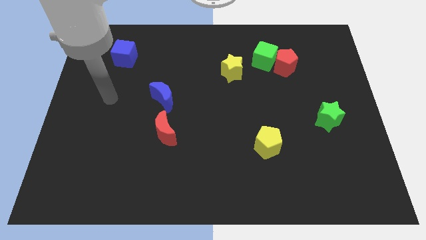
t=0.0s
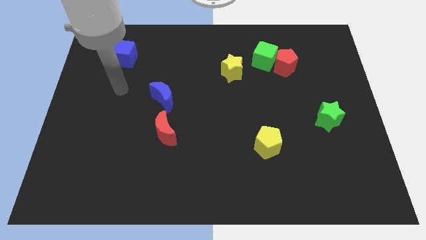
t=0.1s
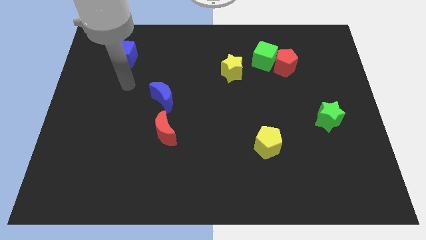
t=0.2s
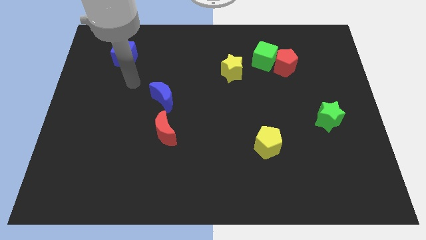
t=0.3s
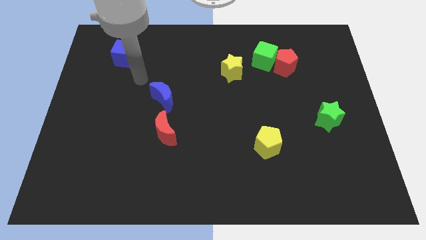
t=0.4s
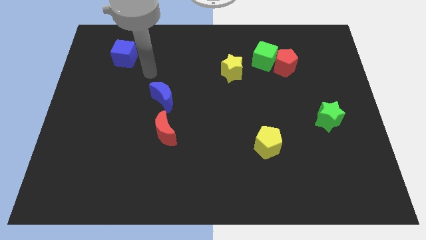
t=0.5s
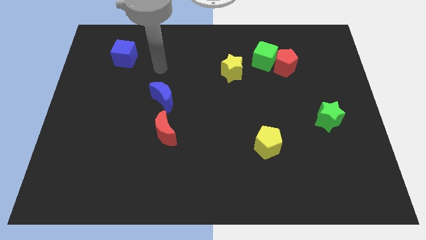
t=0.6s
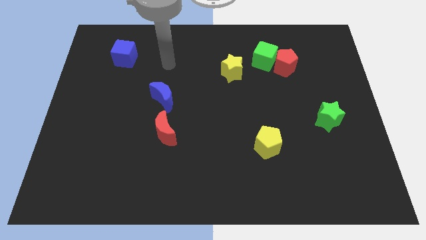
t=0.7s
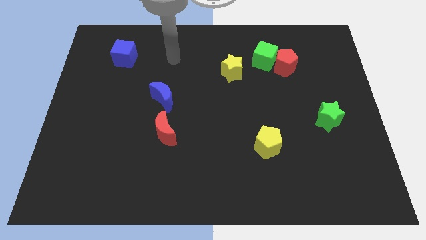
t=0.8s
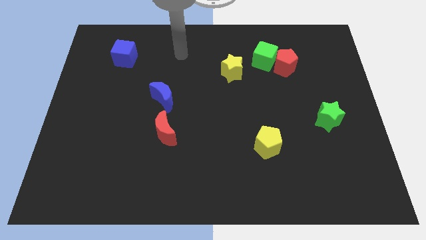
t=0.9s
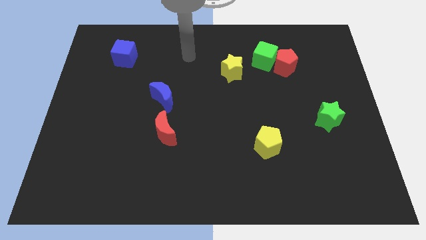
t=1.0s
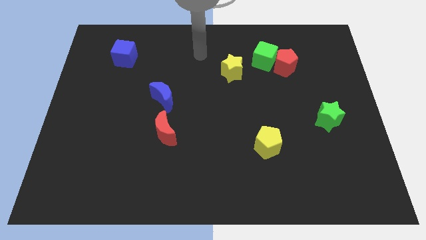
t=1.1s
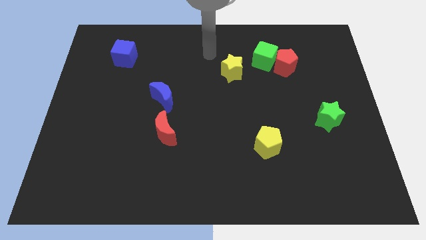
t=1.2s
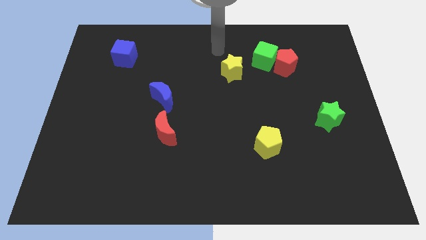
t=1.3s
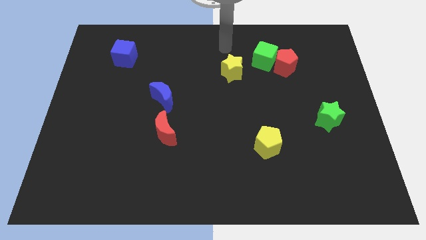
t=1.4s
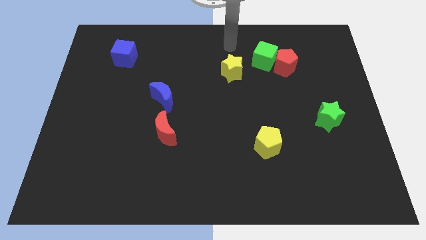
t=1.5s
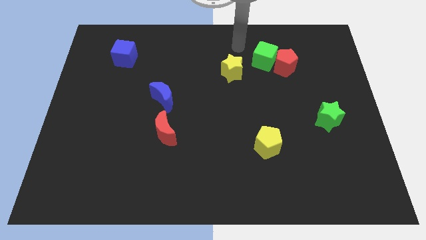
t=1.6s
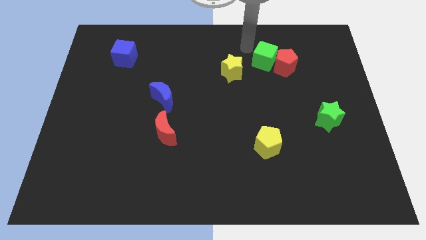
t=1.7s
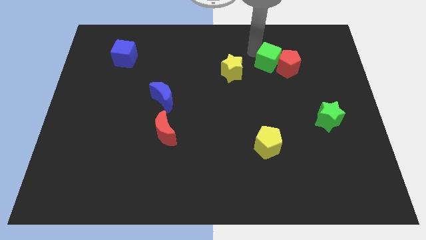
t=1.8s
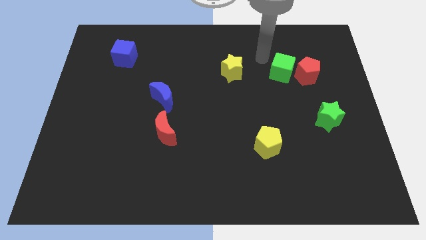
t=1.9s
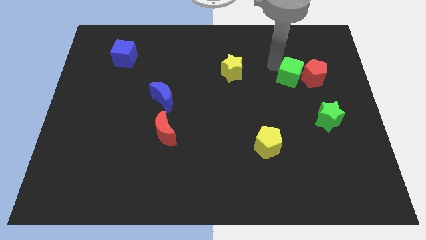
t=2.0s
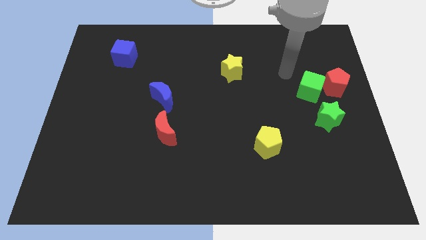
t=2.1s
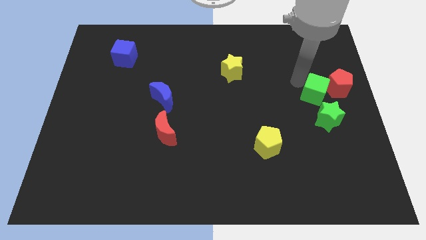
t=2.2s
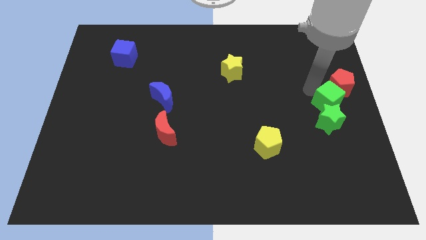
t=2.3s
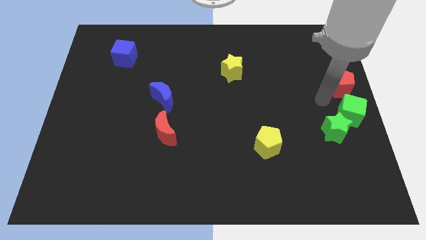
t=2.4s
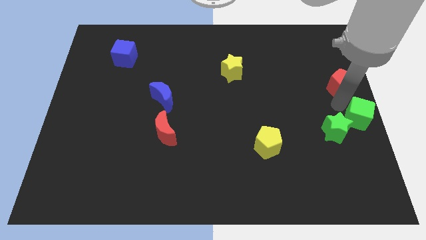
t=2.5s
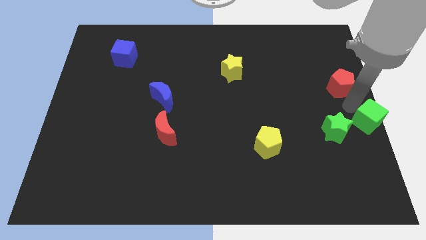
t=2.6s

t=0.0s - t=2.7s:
separate the red pentagon from the green cube

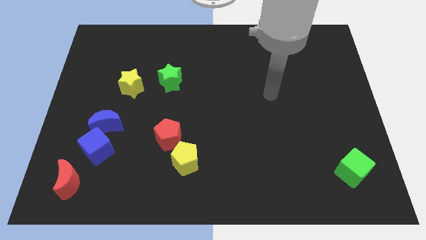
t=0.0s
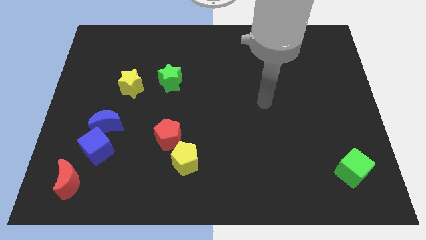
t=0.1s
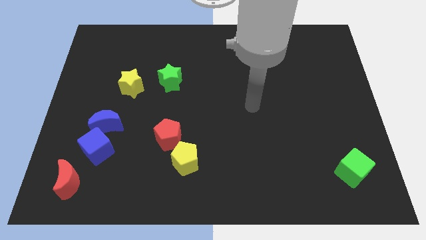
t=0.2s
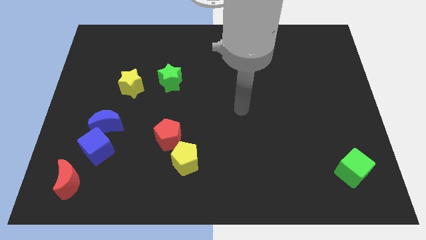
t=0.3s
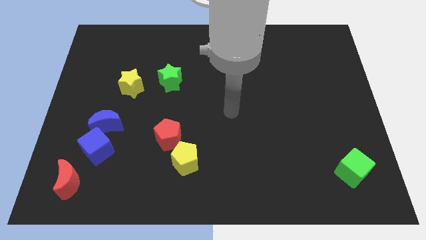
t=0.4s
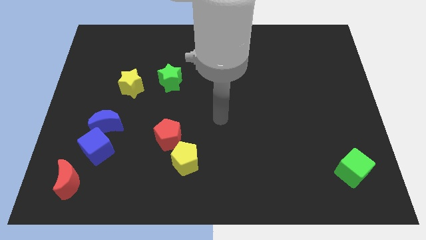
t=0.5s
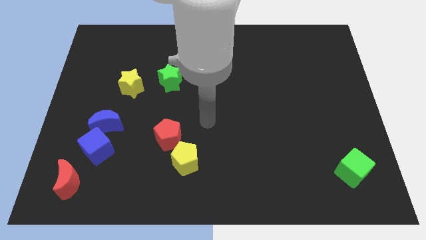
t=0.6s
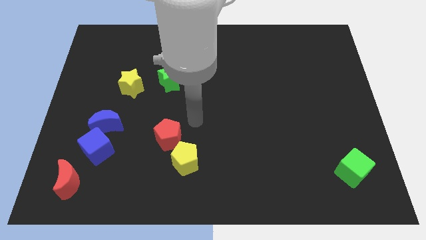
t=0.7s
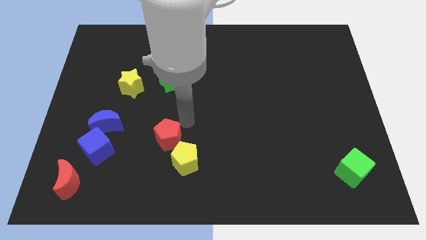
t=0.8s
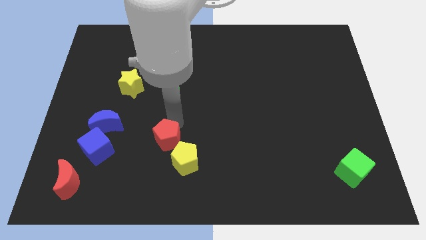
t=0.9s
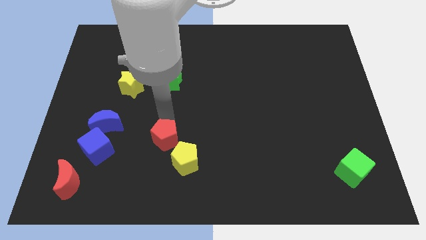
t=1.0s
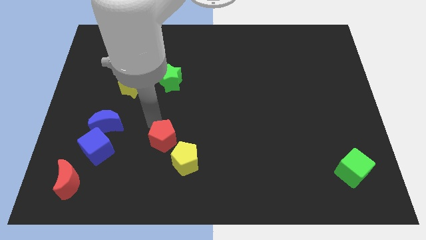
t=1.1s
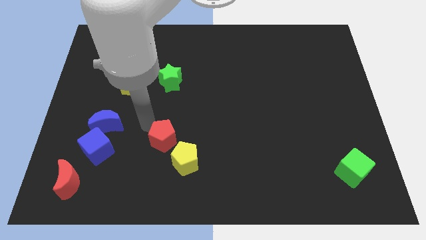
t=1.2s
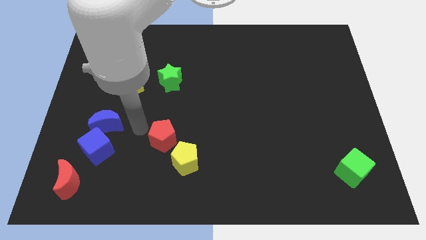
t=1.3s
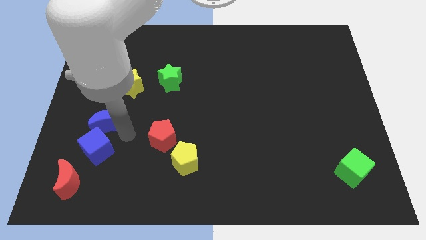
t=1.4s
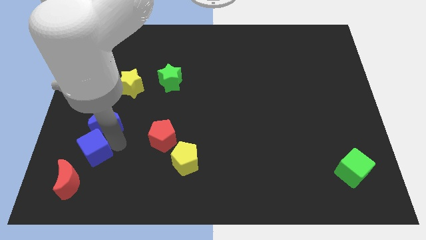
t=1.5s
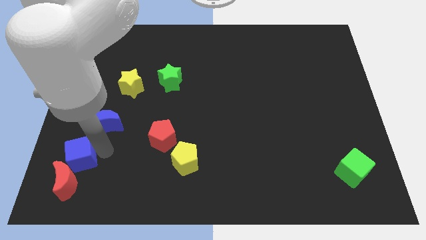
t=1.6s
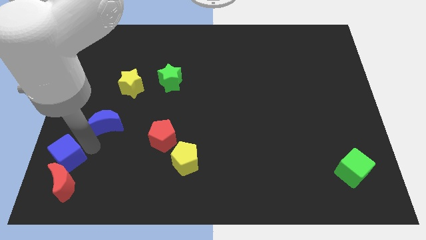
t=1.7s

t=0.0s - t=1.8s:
pull the blue moon apart from the blue cube

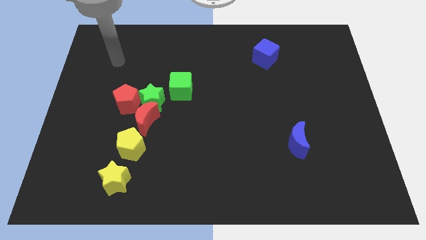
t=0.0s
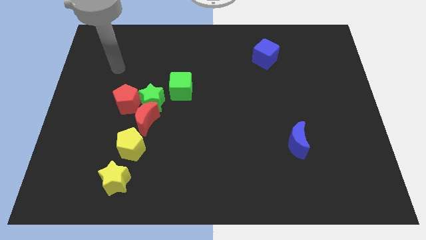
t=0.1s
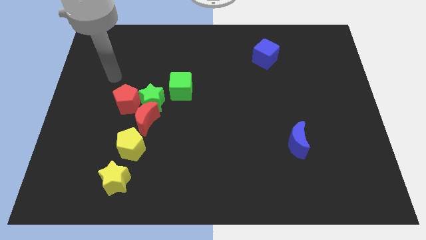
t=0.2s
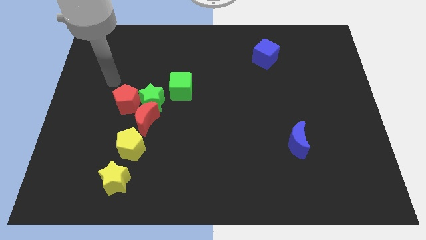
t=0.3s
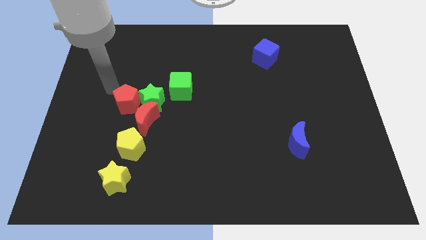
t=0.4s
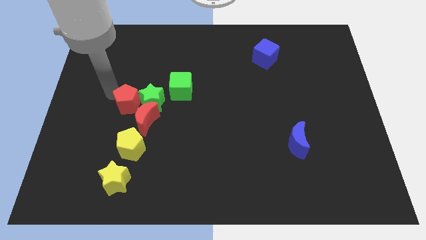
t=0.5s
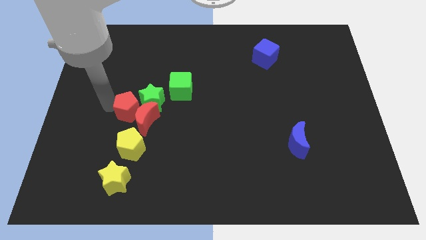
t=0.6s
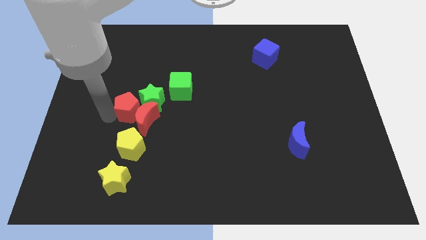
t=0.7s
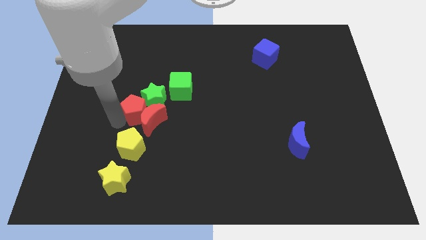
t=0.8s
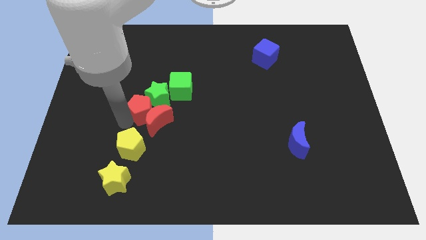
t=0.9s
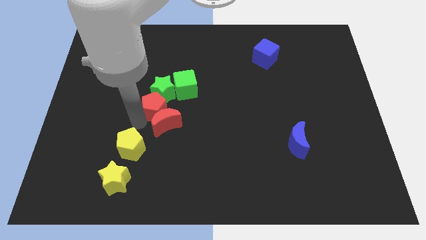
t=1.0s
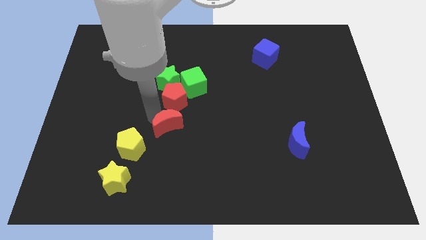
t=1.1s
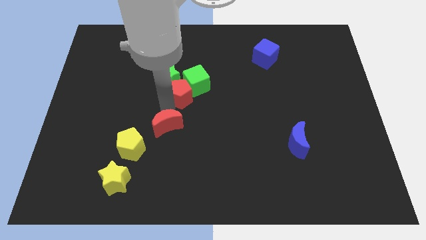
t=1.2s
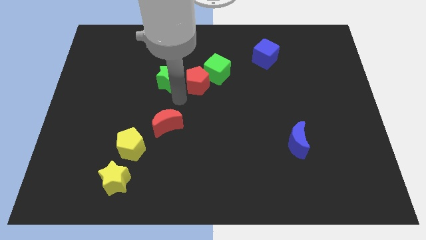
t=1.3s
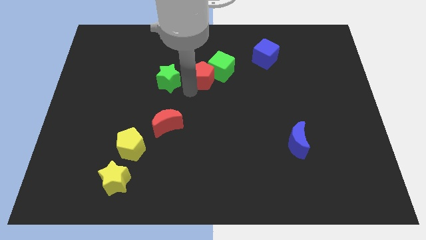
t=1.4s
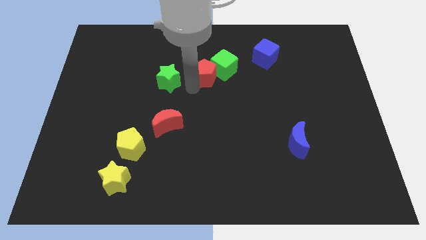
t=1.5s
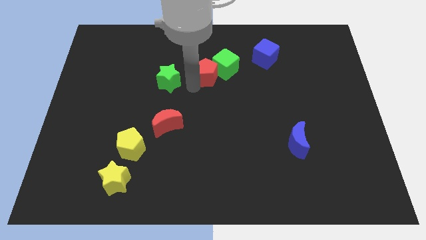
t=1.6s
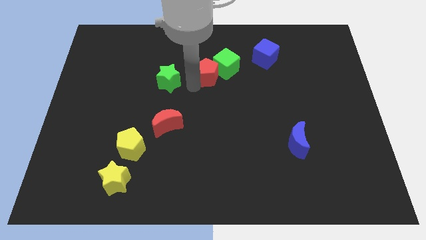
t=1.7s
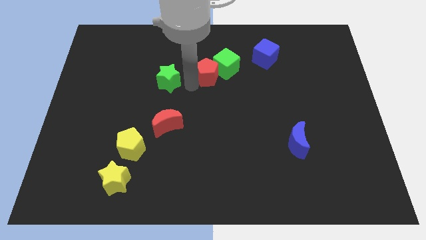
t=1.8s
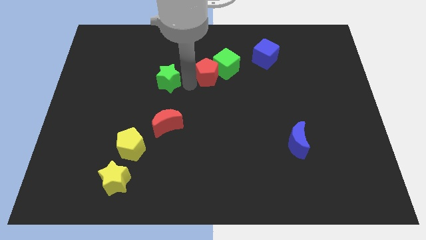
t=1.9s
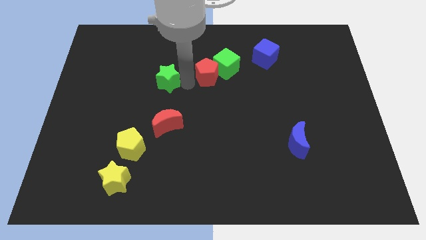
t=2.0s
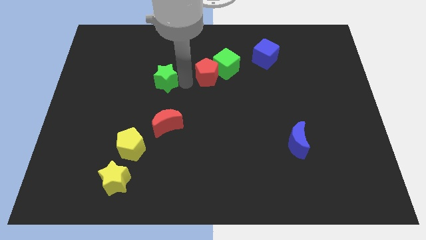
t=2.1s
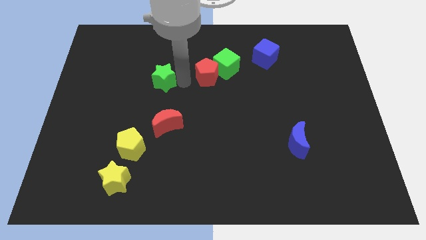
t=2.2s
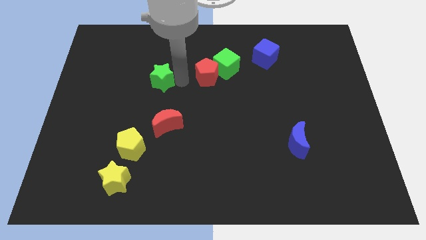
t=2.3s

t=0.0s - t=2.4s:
pull the green star apart from the red moon, red pentagon, and green cube

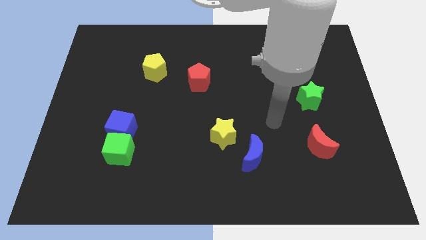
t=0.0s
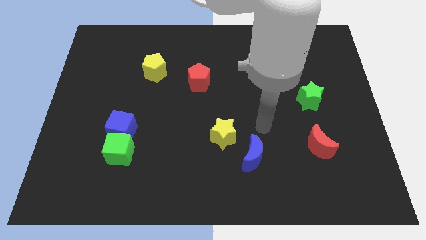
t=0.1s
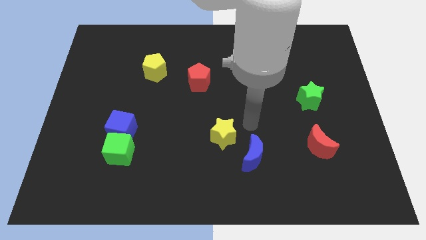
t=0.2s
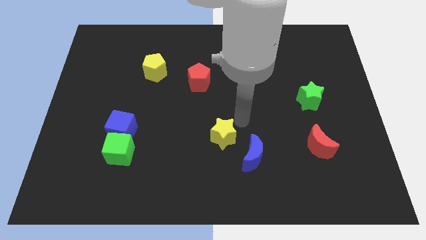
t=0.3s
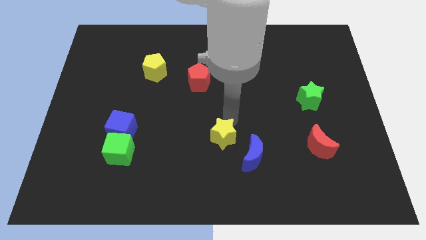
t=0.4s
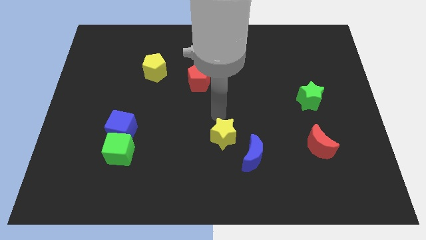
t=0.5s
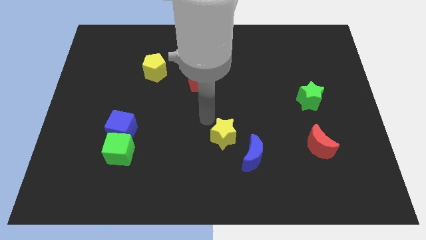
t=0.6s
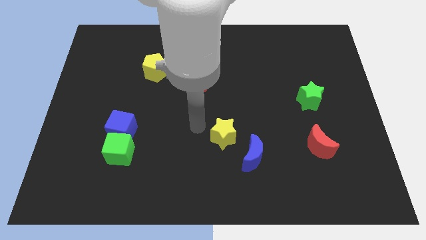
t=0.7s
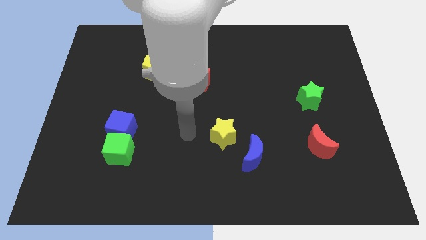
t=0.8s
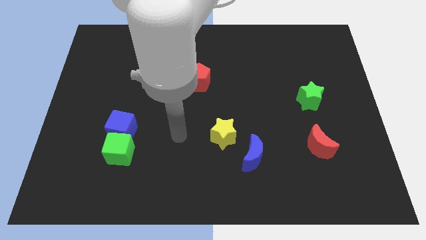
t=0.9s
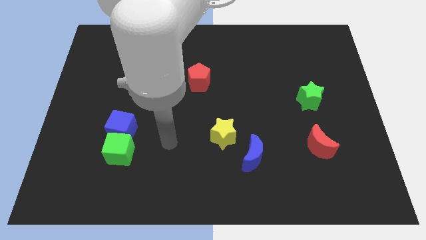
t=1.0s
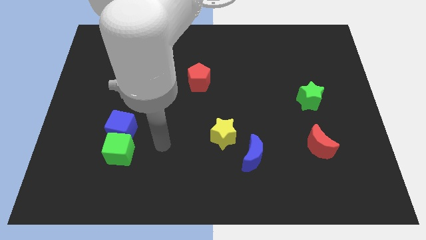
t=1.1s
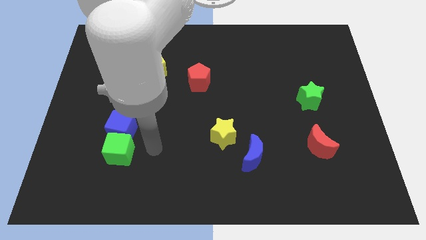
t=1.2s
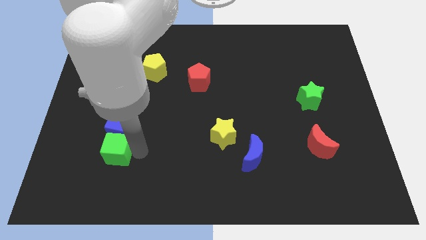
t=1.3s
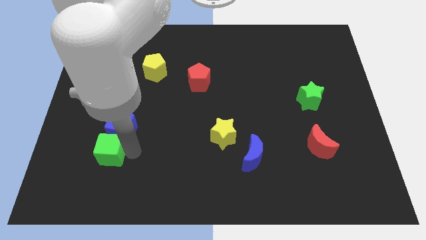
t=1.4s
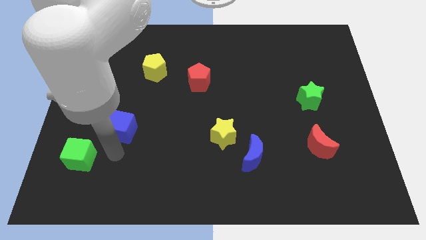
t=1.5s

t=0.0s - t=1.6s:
pull the blue cube apart from the green cube

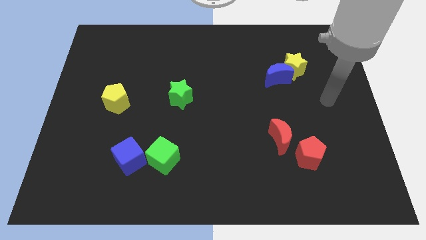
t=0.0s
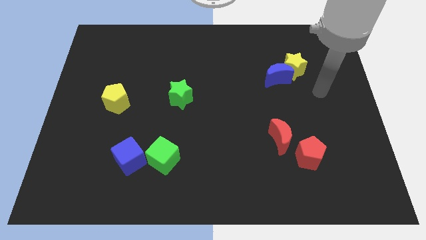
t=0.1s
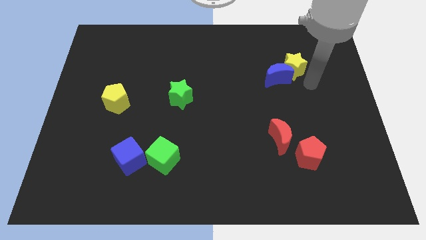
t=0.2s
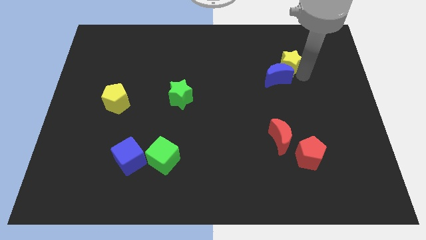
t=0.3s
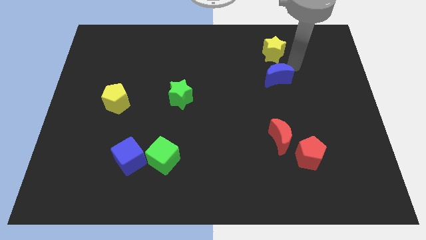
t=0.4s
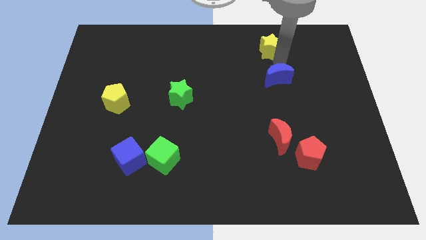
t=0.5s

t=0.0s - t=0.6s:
pull the blue moon apart from the yellow star

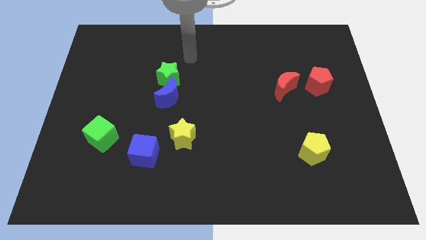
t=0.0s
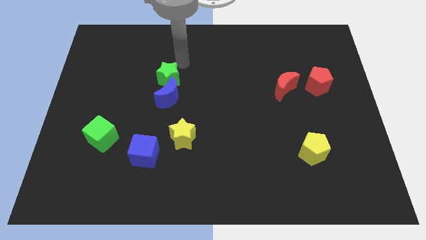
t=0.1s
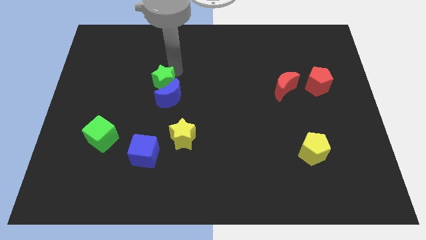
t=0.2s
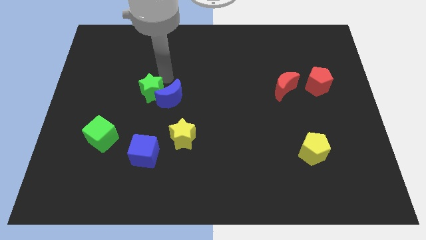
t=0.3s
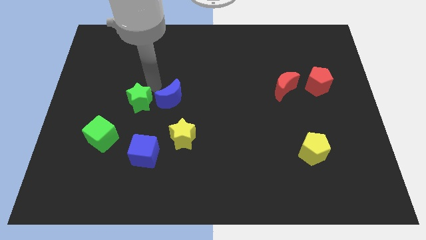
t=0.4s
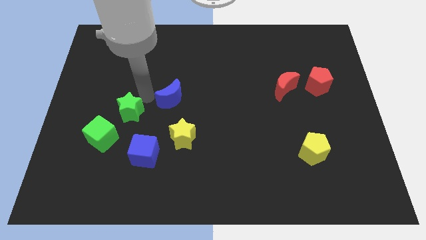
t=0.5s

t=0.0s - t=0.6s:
pull the blue moon apart from the green star
